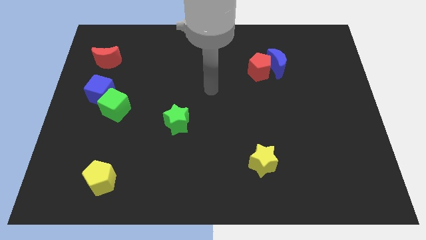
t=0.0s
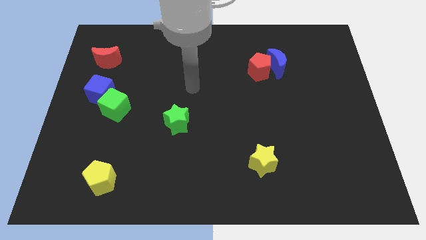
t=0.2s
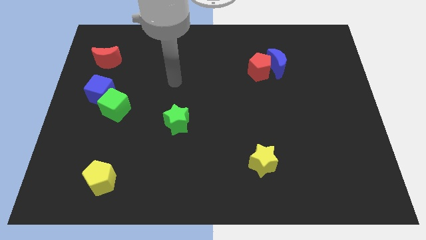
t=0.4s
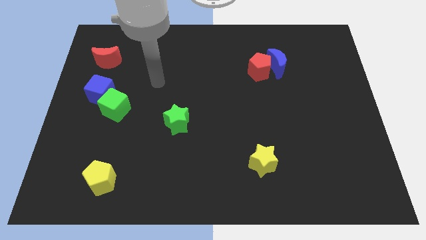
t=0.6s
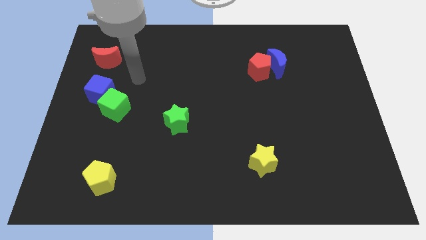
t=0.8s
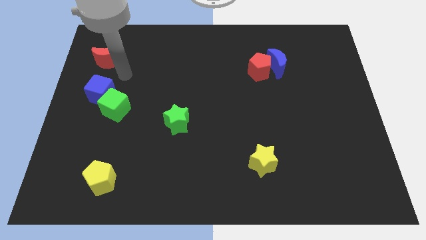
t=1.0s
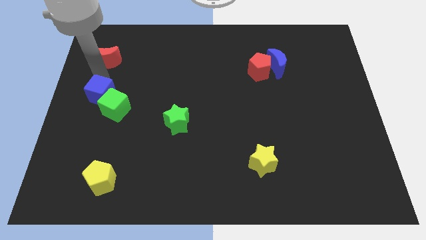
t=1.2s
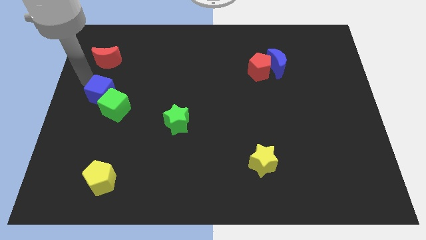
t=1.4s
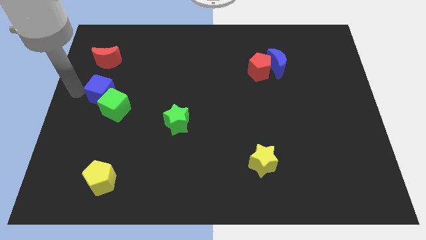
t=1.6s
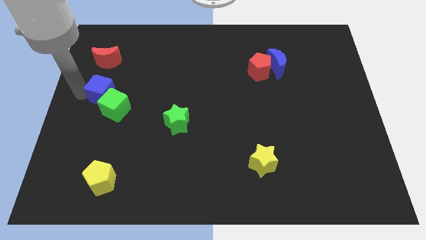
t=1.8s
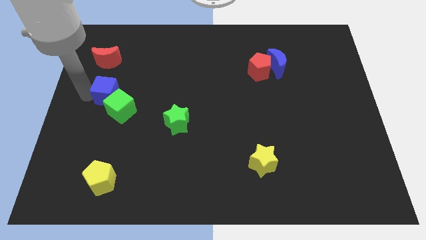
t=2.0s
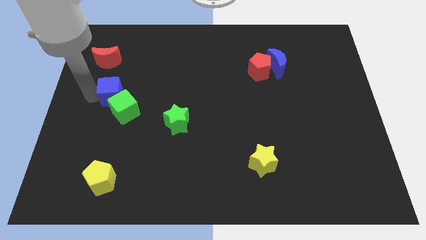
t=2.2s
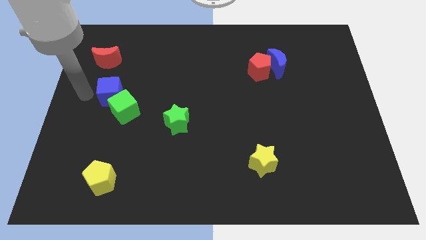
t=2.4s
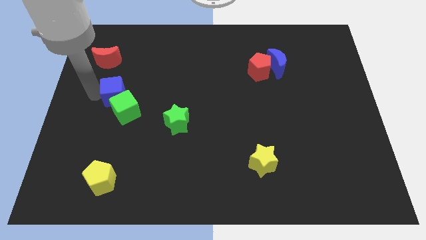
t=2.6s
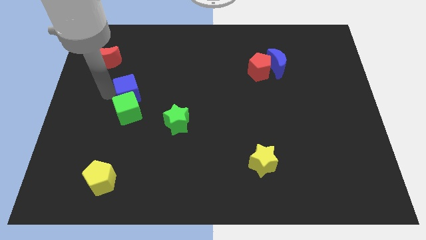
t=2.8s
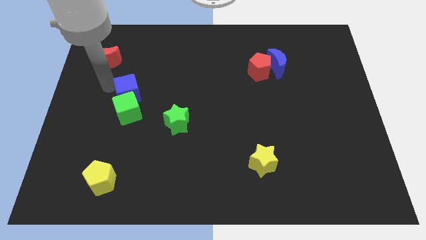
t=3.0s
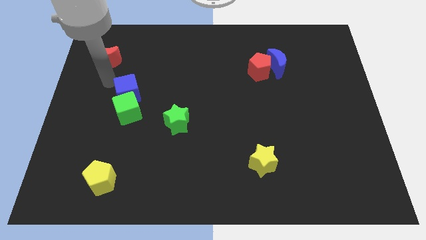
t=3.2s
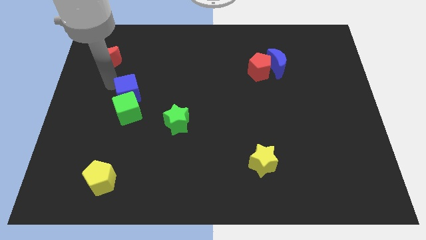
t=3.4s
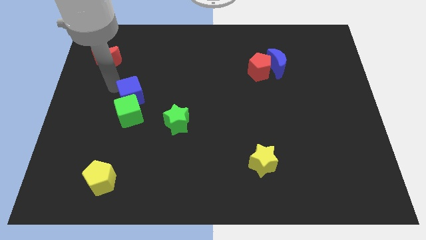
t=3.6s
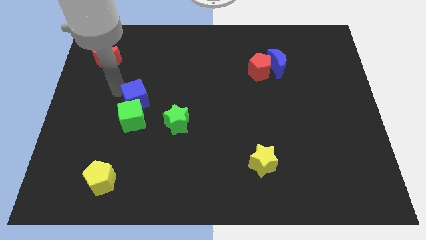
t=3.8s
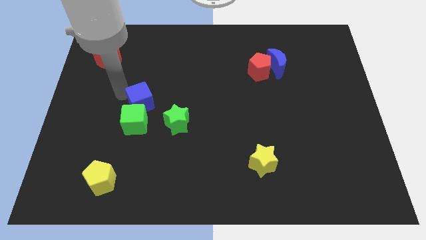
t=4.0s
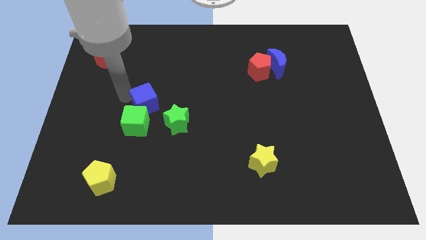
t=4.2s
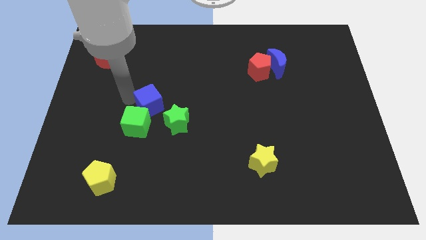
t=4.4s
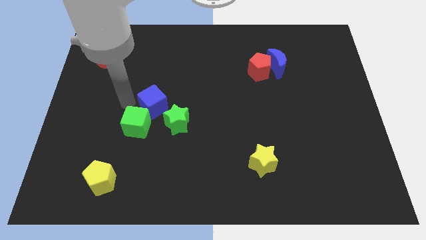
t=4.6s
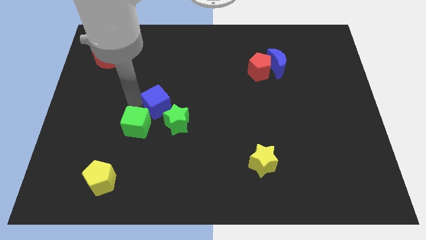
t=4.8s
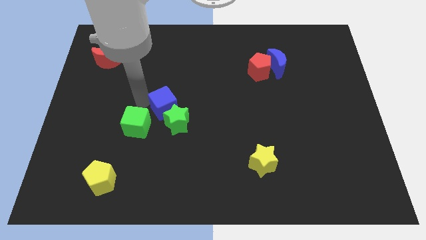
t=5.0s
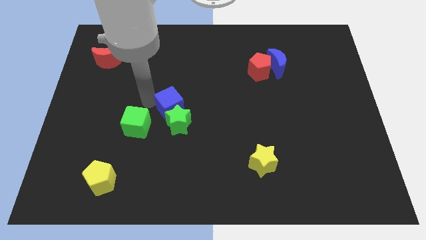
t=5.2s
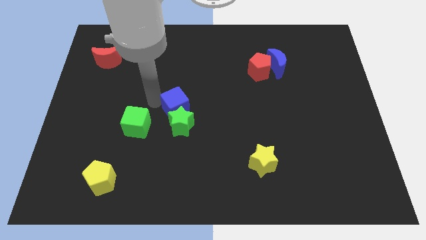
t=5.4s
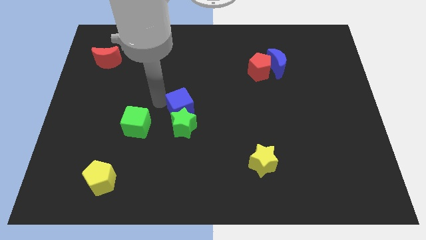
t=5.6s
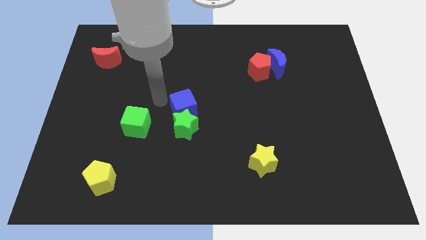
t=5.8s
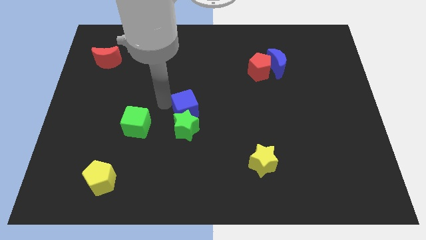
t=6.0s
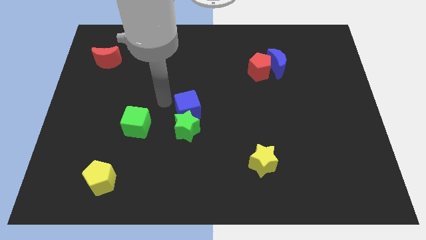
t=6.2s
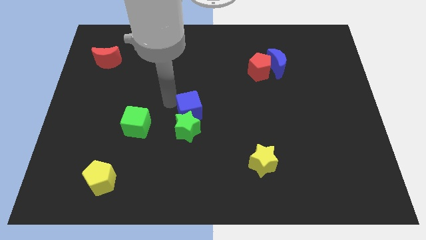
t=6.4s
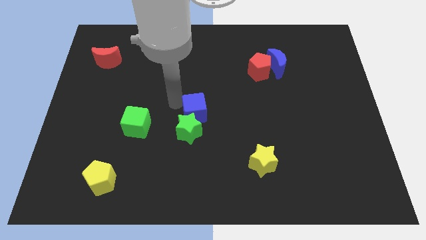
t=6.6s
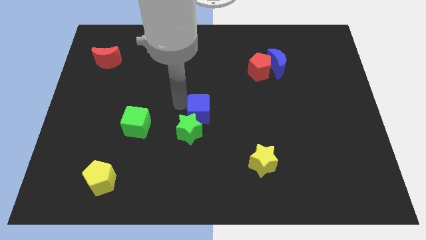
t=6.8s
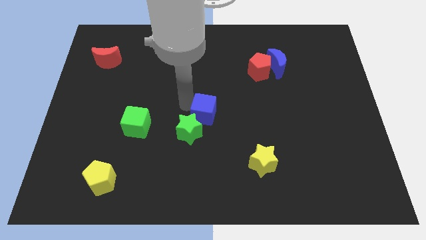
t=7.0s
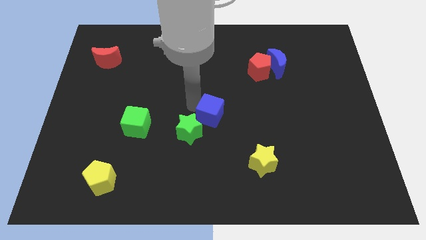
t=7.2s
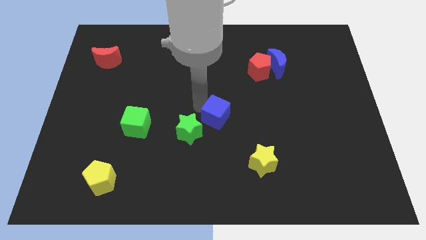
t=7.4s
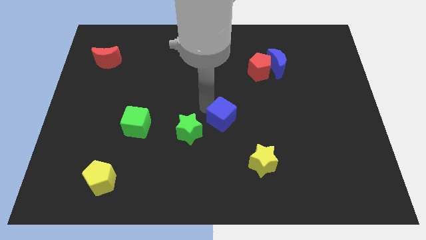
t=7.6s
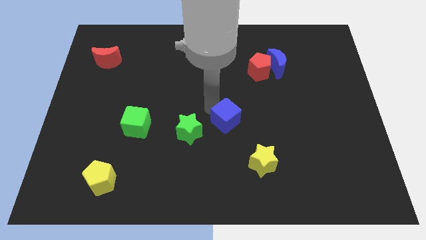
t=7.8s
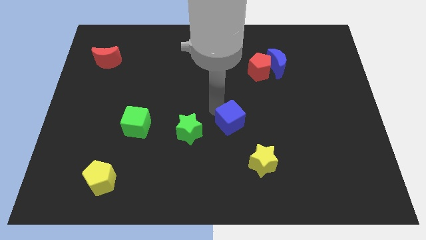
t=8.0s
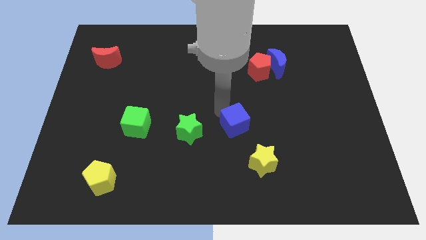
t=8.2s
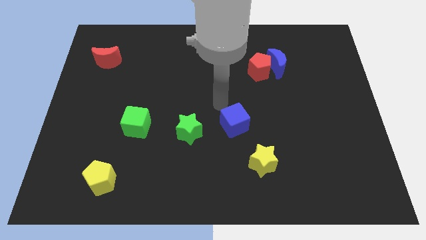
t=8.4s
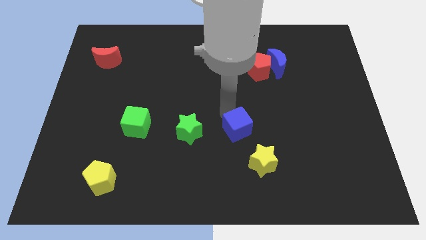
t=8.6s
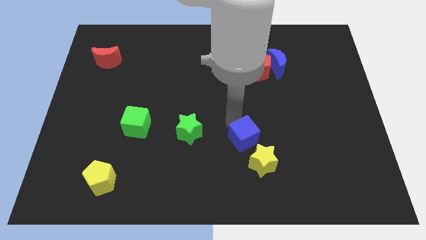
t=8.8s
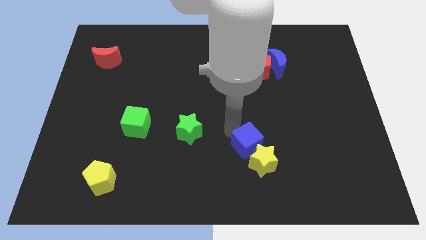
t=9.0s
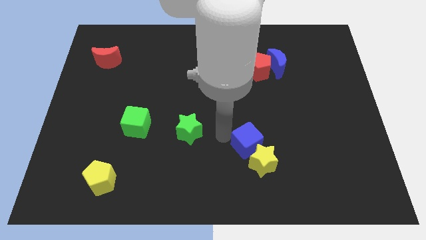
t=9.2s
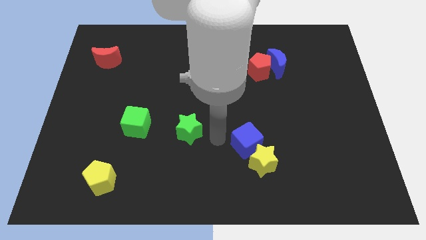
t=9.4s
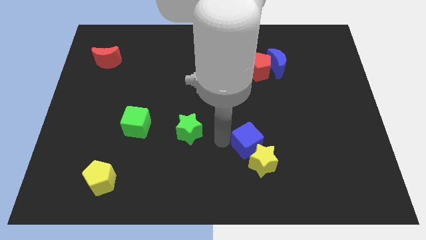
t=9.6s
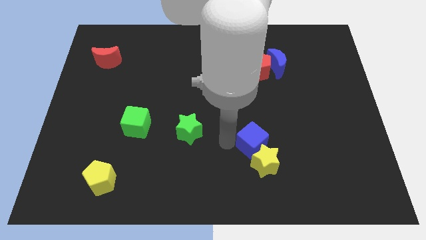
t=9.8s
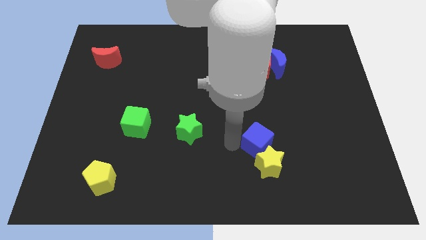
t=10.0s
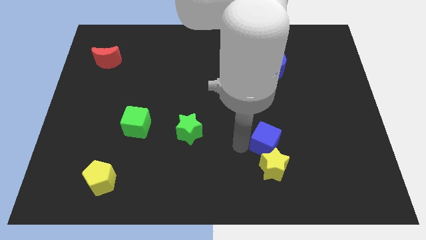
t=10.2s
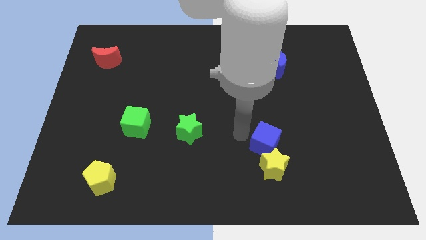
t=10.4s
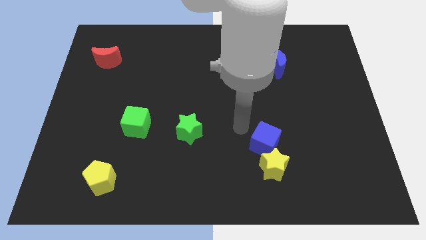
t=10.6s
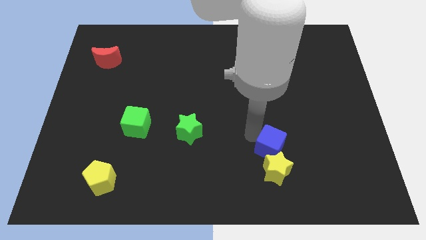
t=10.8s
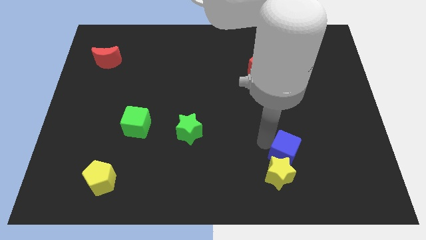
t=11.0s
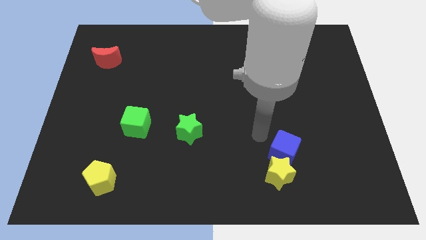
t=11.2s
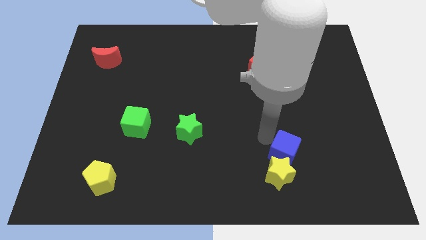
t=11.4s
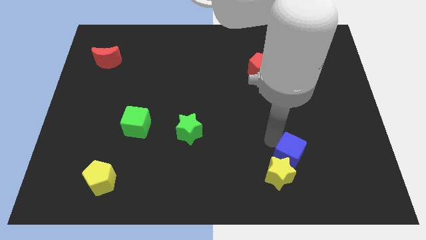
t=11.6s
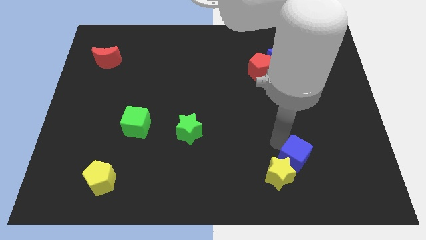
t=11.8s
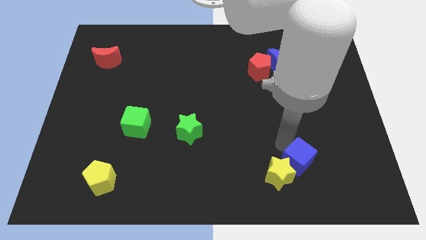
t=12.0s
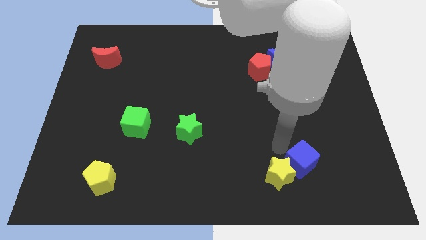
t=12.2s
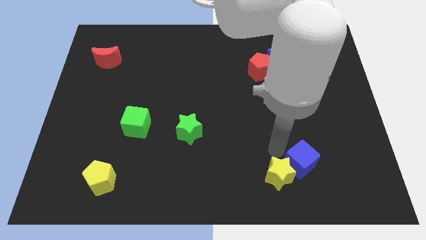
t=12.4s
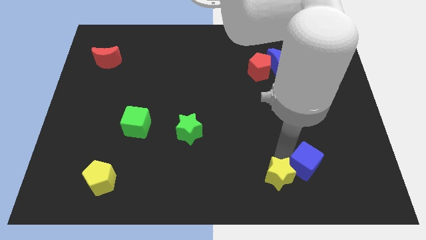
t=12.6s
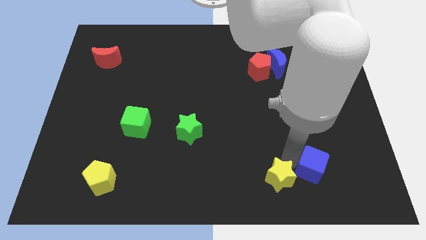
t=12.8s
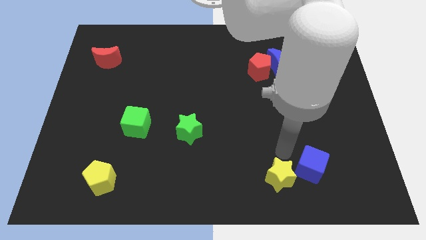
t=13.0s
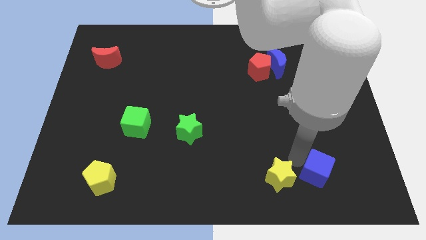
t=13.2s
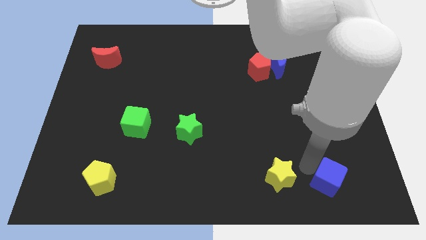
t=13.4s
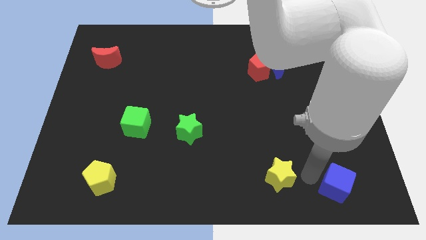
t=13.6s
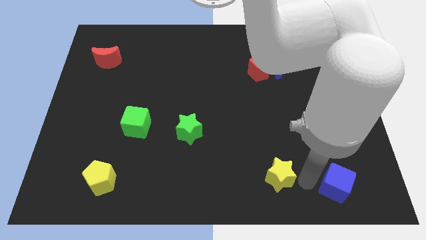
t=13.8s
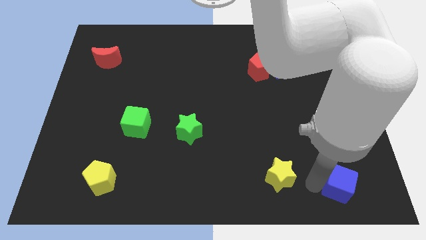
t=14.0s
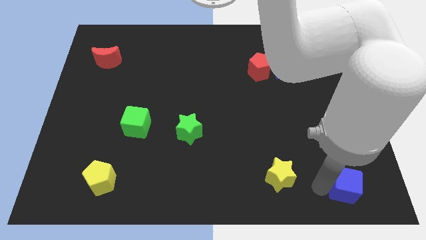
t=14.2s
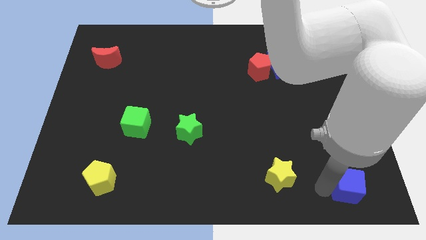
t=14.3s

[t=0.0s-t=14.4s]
push the blue cube to the bottom right
